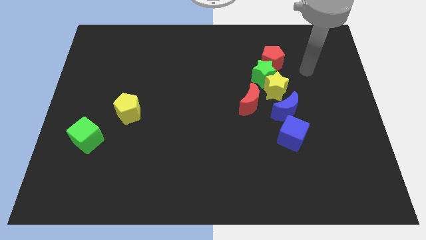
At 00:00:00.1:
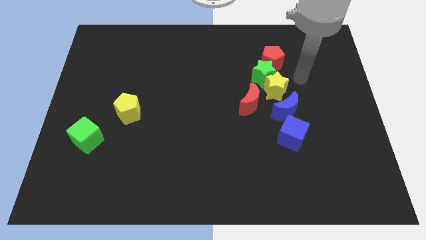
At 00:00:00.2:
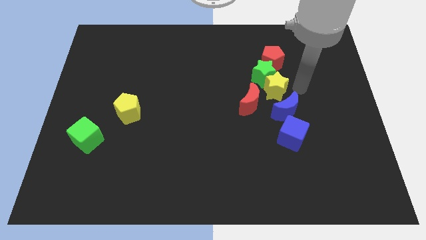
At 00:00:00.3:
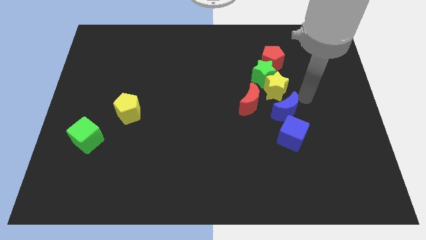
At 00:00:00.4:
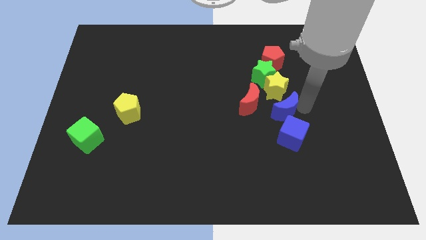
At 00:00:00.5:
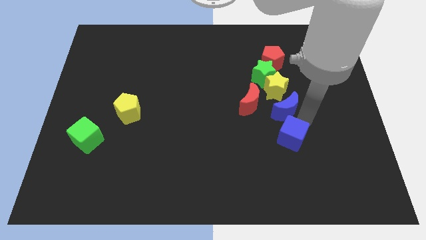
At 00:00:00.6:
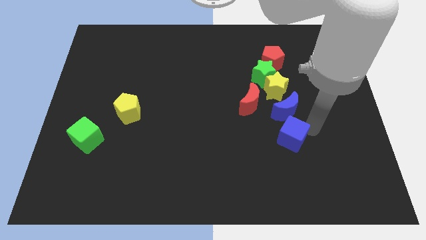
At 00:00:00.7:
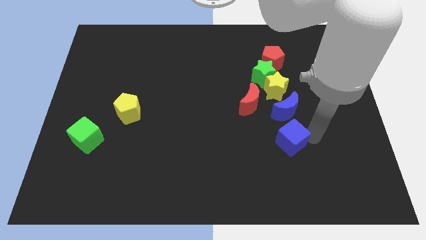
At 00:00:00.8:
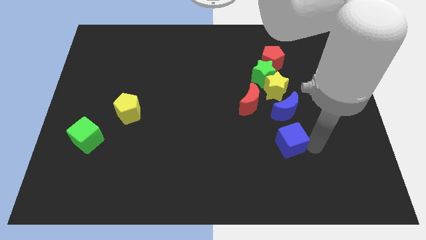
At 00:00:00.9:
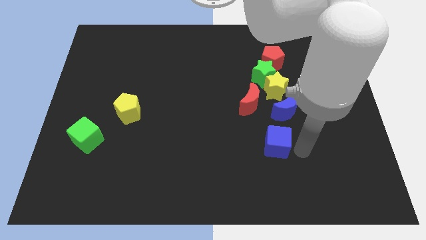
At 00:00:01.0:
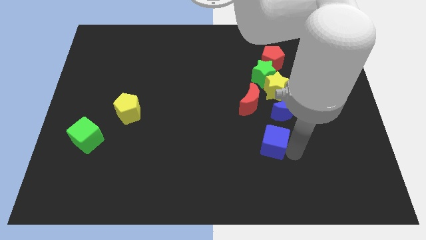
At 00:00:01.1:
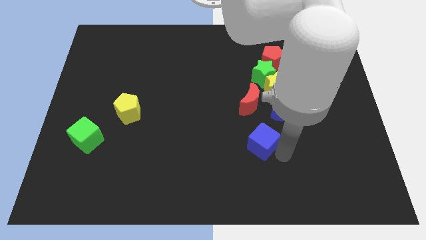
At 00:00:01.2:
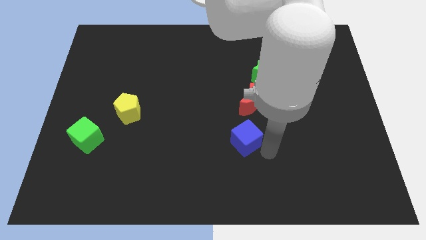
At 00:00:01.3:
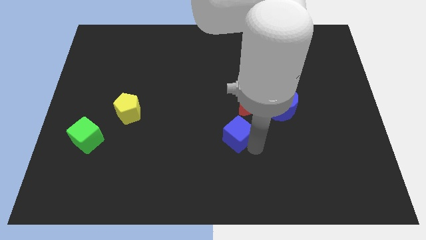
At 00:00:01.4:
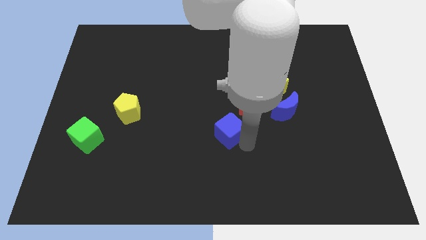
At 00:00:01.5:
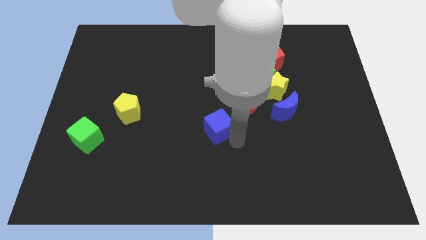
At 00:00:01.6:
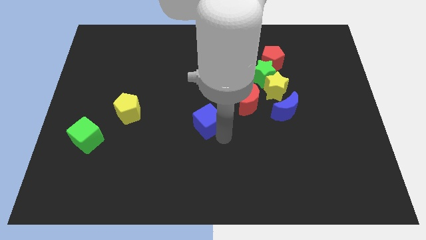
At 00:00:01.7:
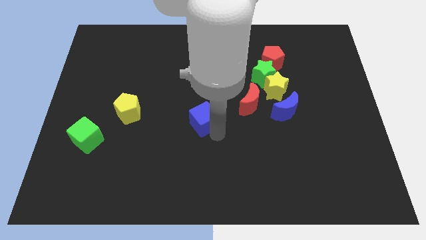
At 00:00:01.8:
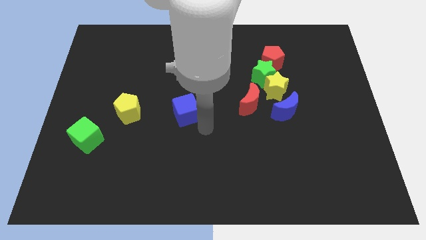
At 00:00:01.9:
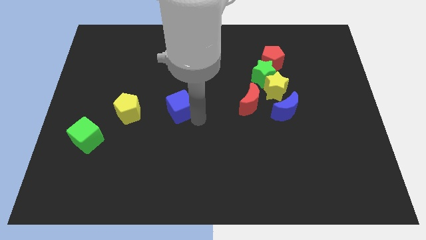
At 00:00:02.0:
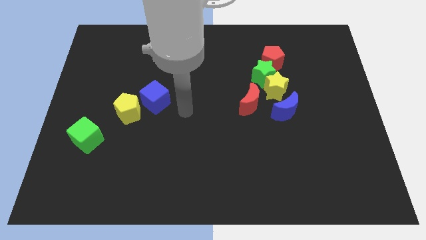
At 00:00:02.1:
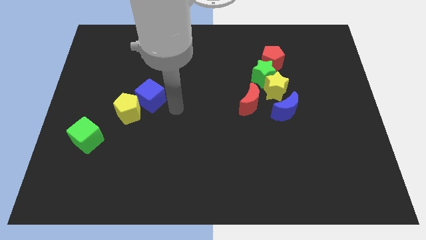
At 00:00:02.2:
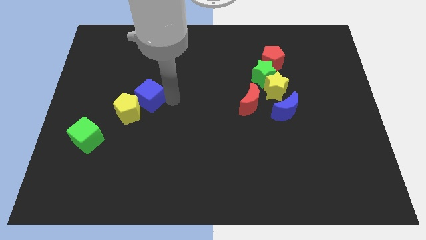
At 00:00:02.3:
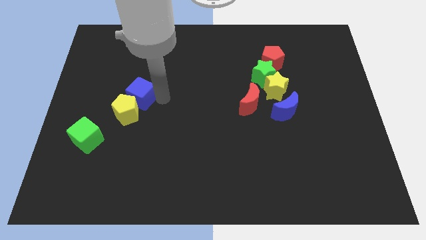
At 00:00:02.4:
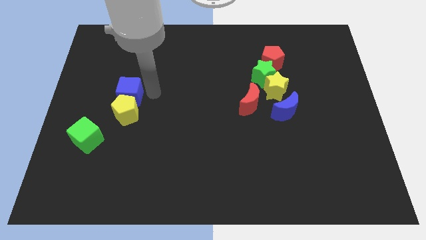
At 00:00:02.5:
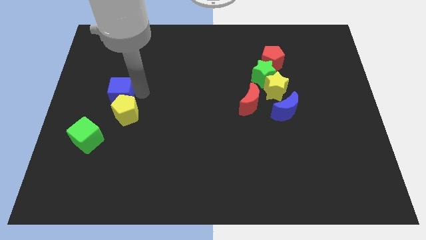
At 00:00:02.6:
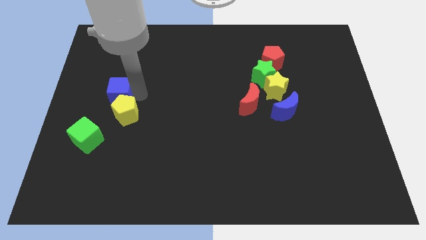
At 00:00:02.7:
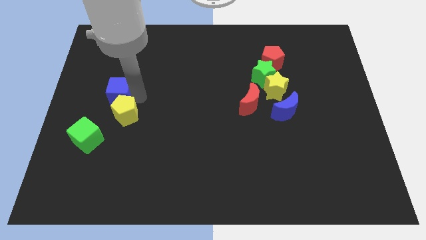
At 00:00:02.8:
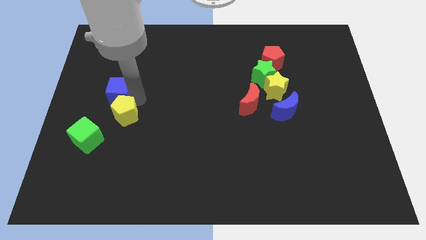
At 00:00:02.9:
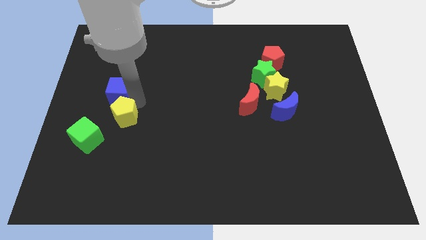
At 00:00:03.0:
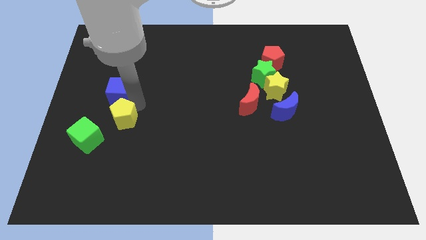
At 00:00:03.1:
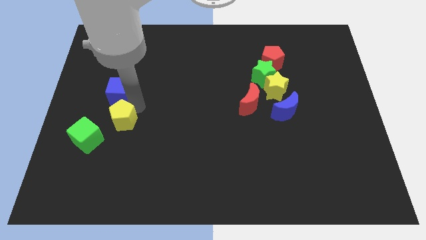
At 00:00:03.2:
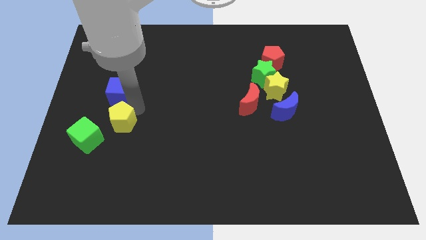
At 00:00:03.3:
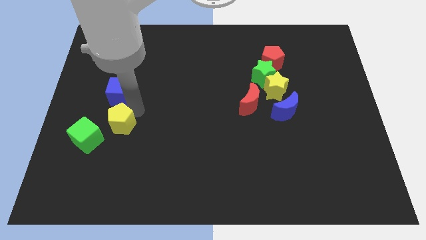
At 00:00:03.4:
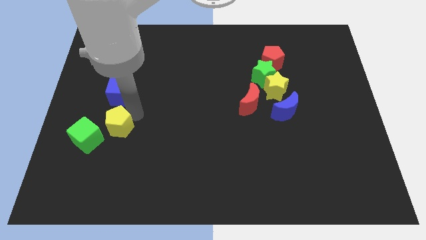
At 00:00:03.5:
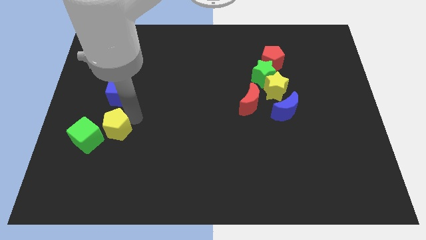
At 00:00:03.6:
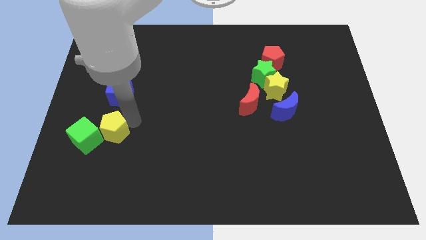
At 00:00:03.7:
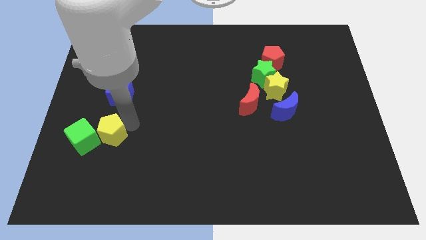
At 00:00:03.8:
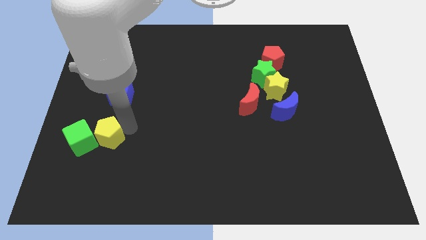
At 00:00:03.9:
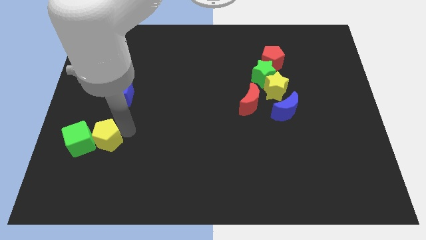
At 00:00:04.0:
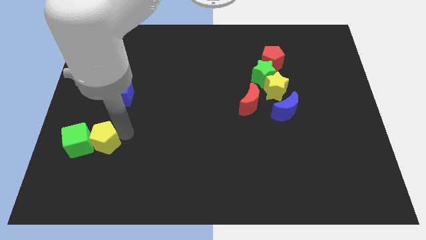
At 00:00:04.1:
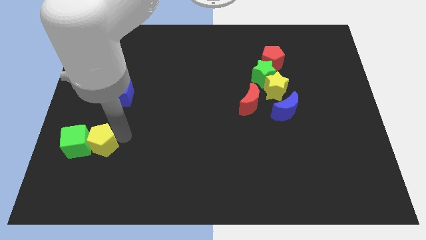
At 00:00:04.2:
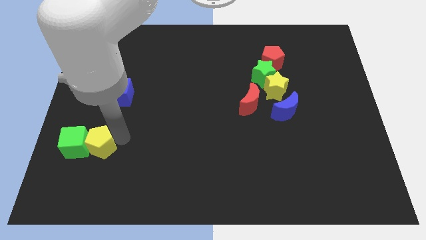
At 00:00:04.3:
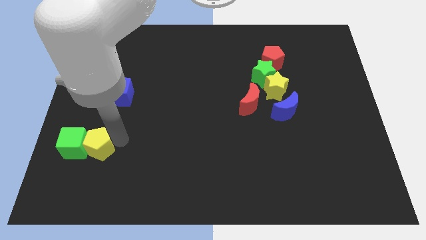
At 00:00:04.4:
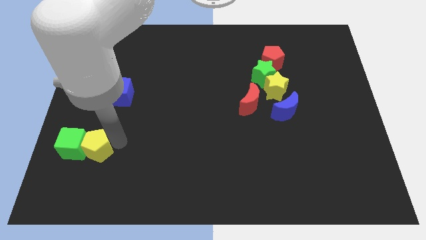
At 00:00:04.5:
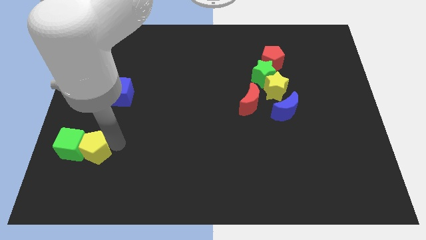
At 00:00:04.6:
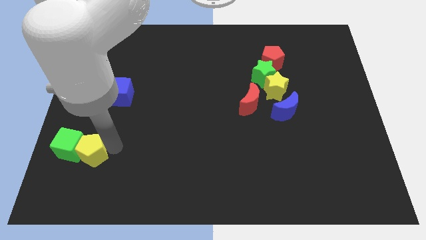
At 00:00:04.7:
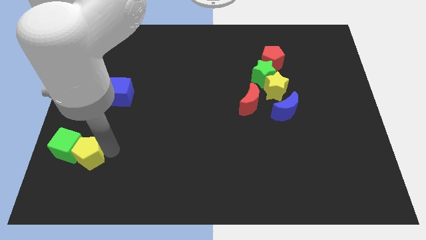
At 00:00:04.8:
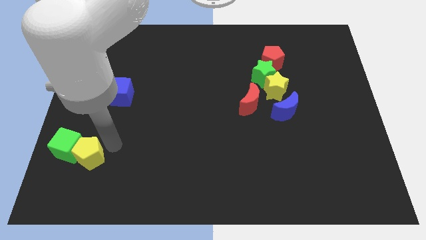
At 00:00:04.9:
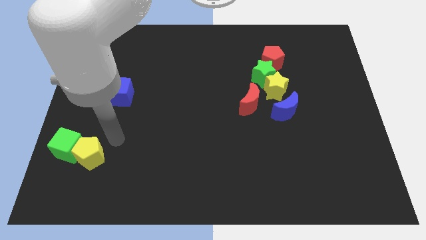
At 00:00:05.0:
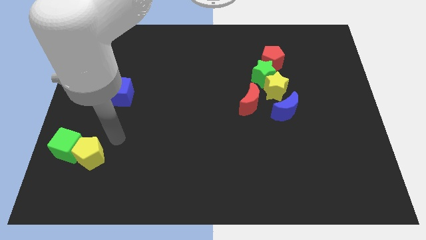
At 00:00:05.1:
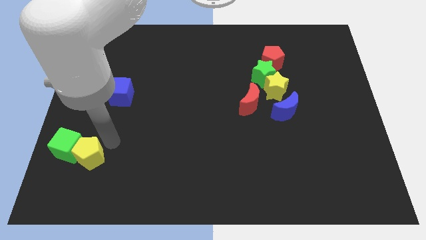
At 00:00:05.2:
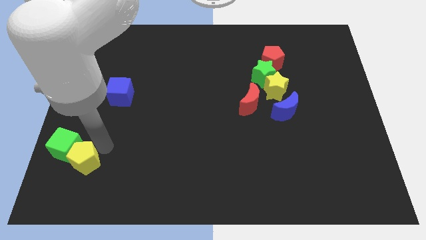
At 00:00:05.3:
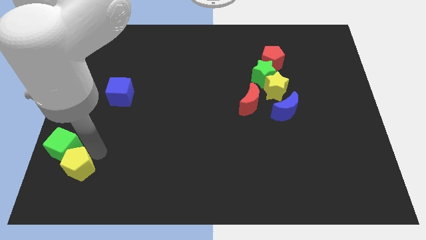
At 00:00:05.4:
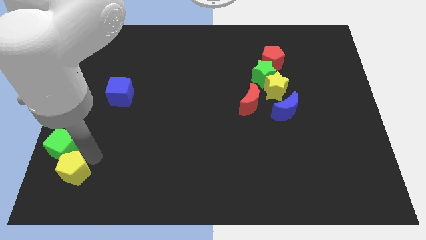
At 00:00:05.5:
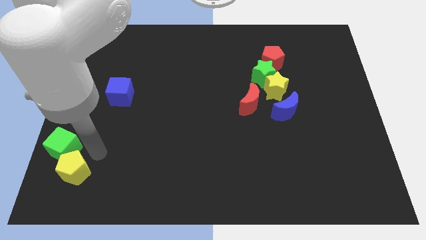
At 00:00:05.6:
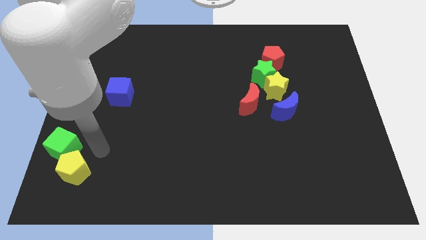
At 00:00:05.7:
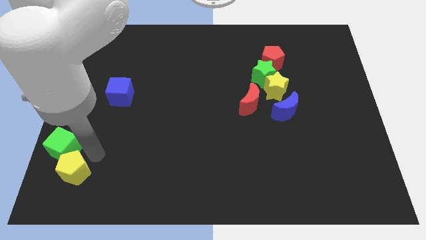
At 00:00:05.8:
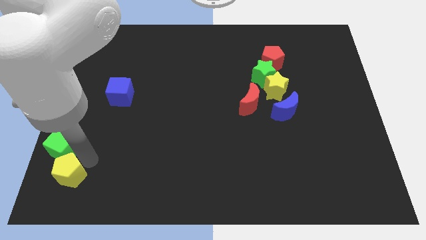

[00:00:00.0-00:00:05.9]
move the yellow pentagon to the lower left corner
